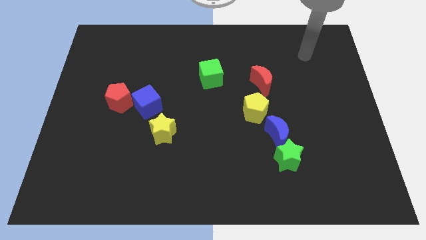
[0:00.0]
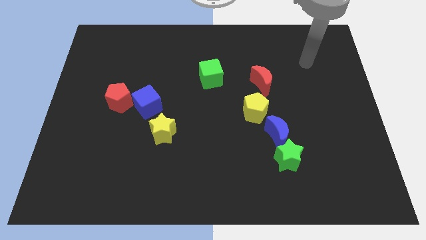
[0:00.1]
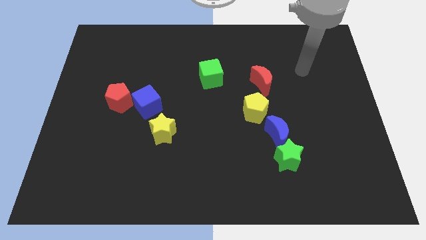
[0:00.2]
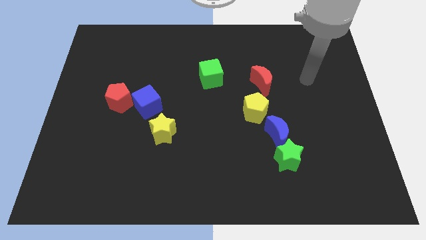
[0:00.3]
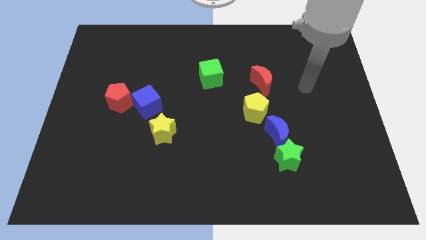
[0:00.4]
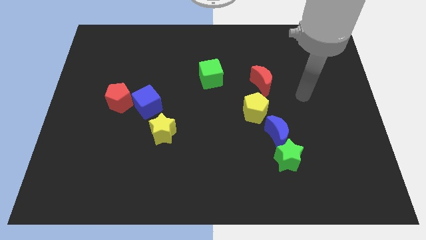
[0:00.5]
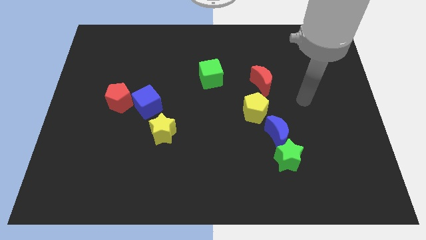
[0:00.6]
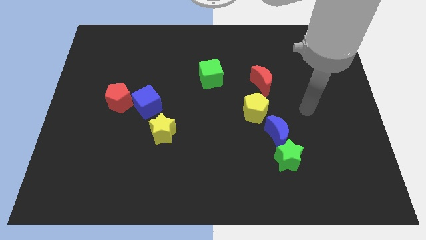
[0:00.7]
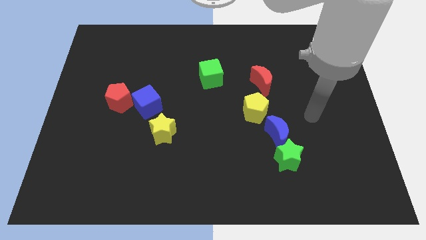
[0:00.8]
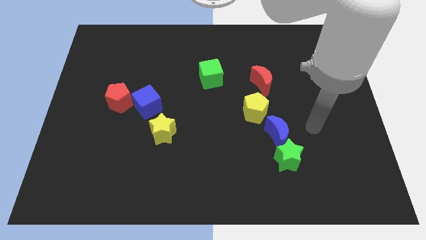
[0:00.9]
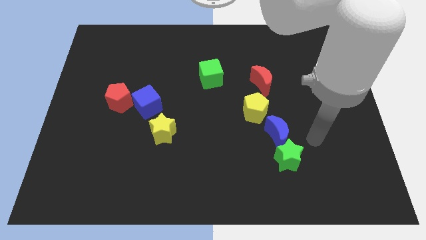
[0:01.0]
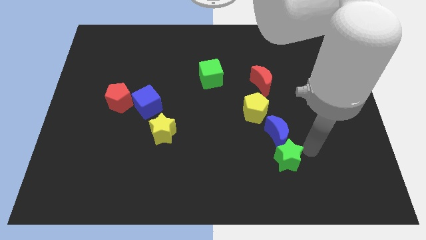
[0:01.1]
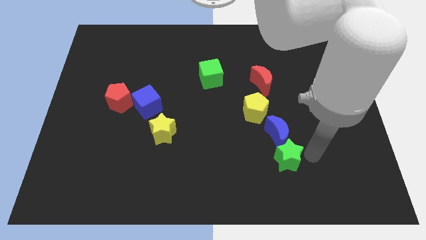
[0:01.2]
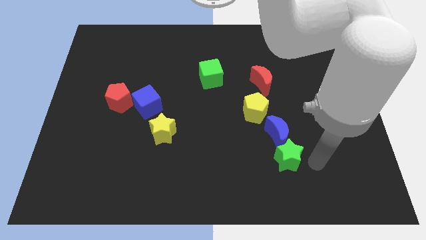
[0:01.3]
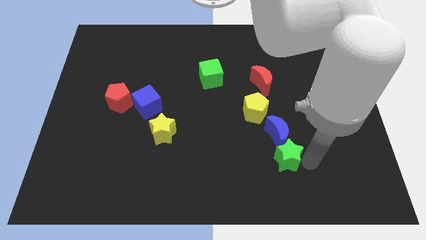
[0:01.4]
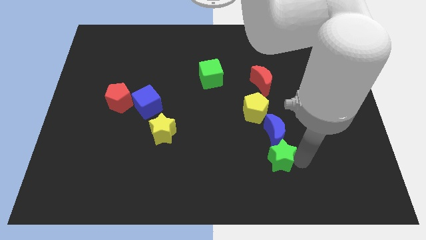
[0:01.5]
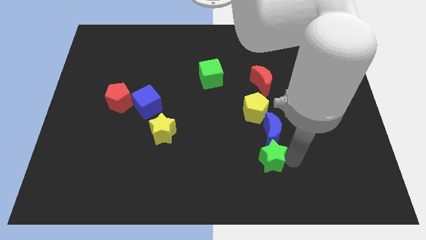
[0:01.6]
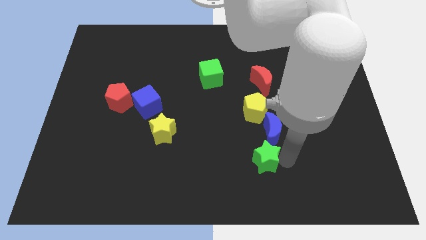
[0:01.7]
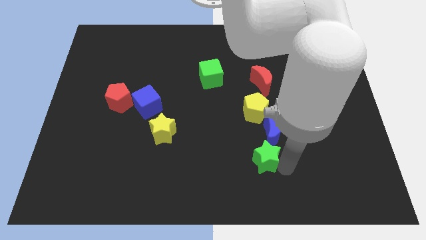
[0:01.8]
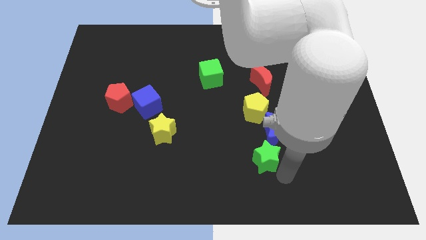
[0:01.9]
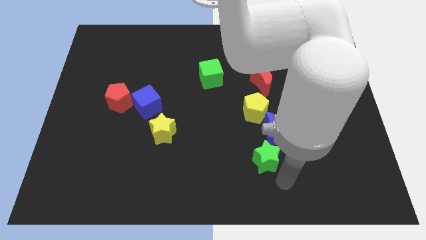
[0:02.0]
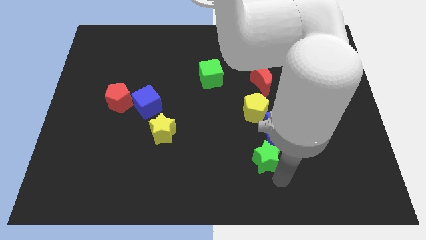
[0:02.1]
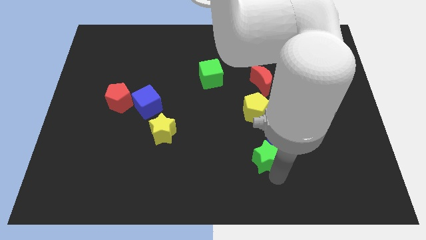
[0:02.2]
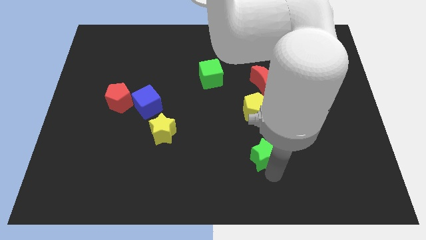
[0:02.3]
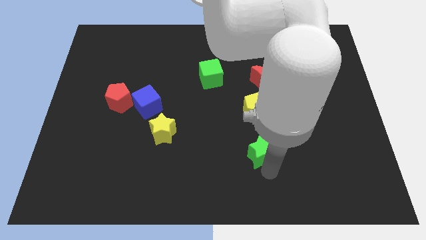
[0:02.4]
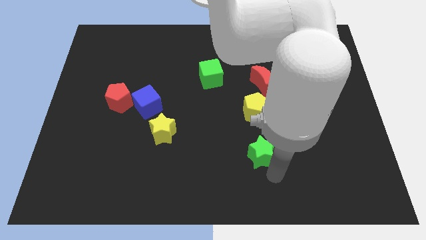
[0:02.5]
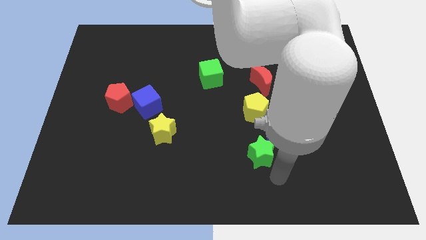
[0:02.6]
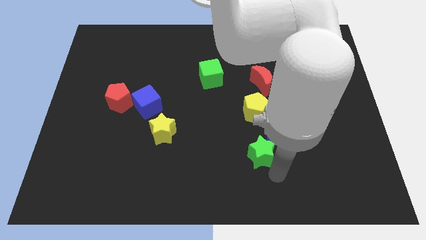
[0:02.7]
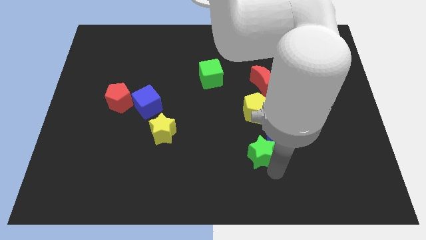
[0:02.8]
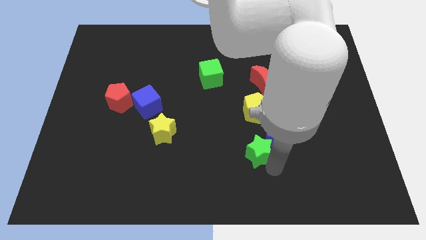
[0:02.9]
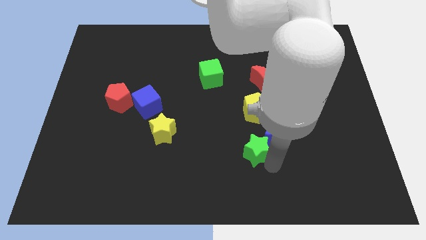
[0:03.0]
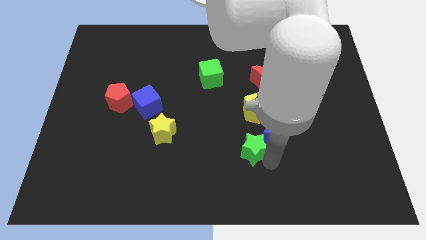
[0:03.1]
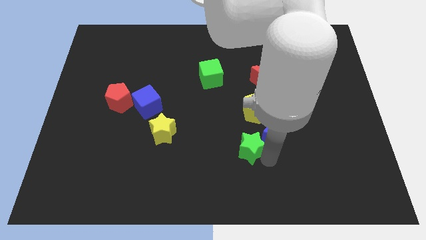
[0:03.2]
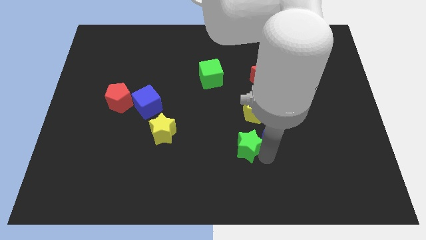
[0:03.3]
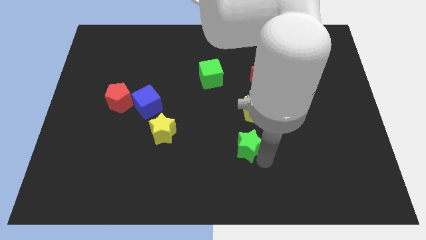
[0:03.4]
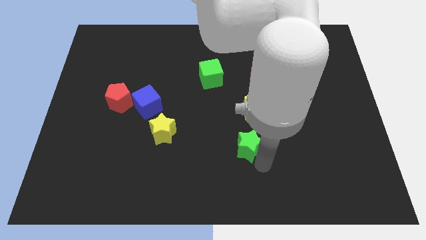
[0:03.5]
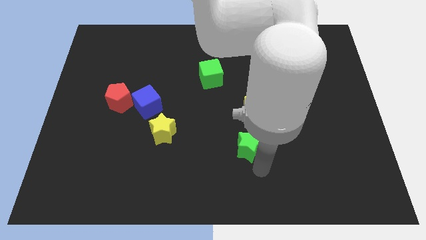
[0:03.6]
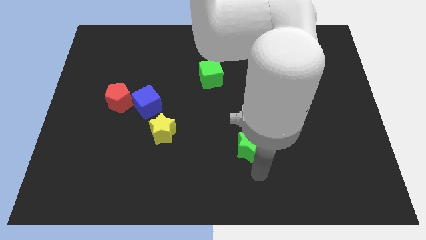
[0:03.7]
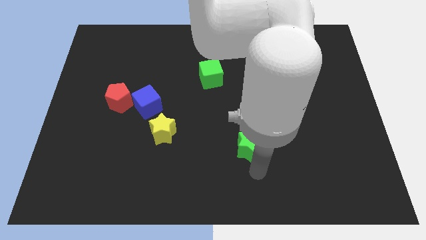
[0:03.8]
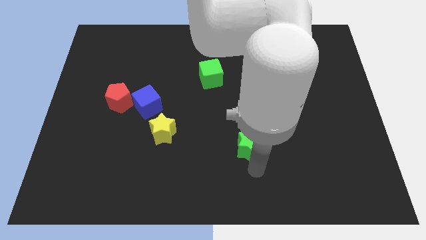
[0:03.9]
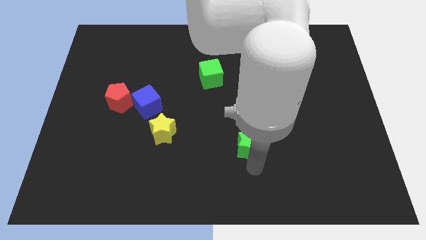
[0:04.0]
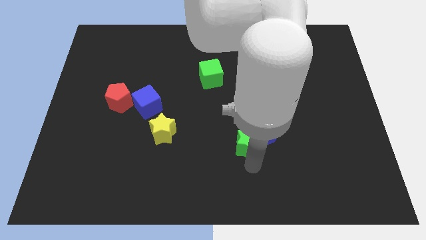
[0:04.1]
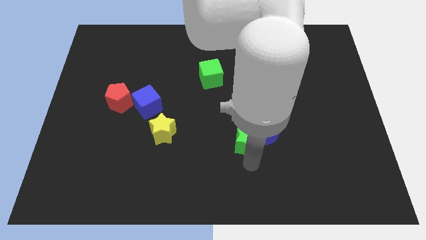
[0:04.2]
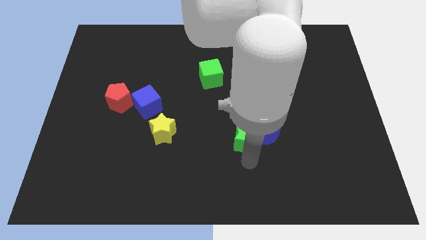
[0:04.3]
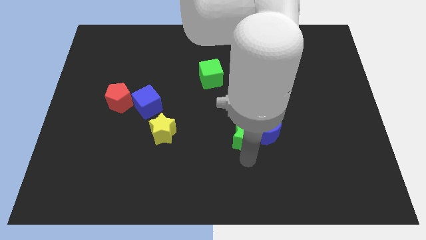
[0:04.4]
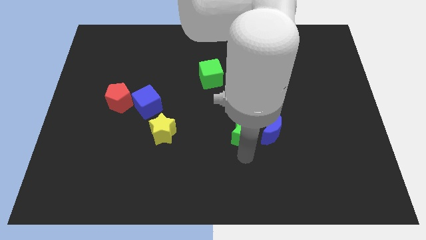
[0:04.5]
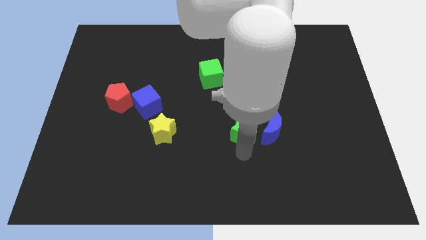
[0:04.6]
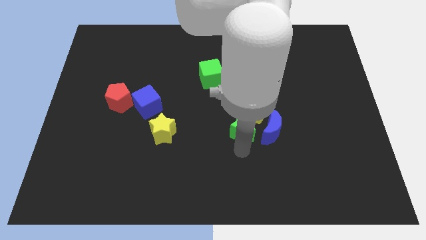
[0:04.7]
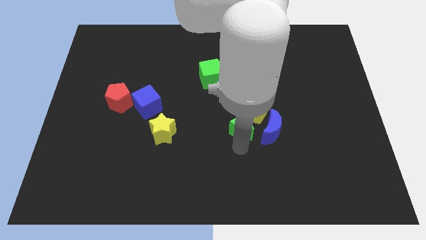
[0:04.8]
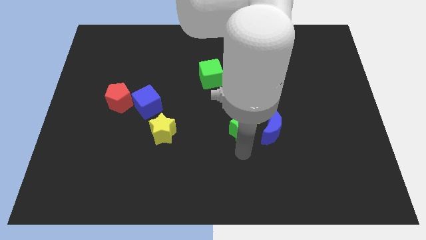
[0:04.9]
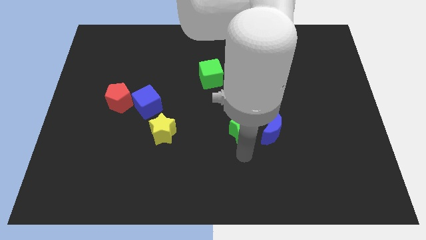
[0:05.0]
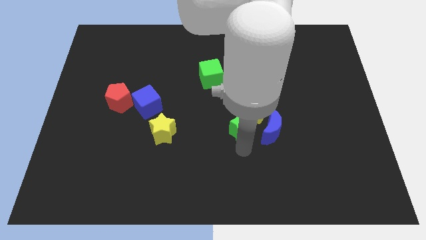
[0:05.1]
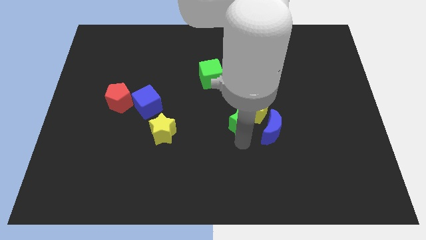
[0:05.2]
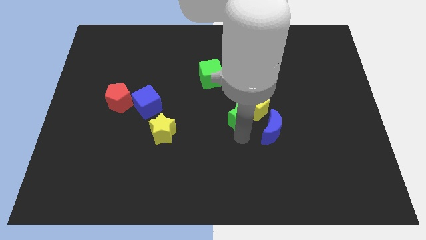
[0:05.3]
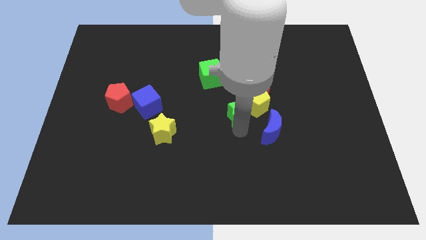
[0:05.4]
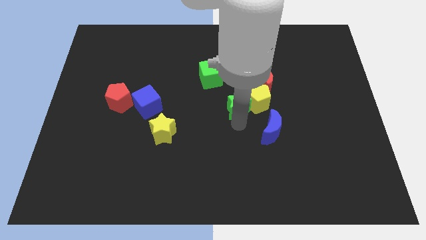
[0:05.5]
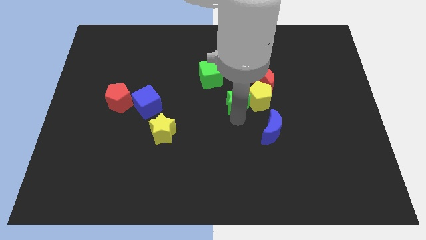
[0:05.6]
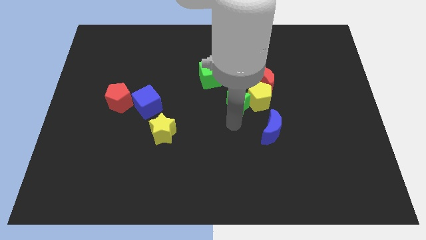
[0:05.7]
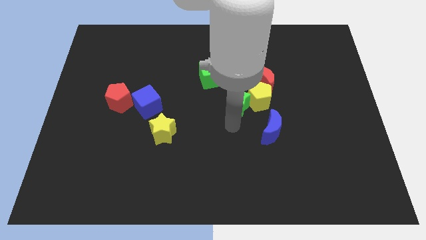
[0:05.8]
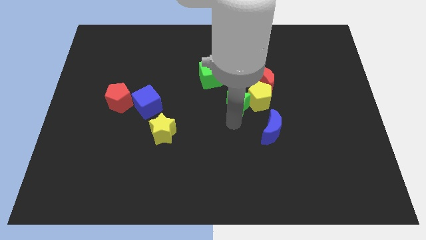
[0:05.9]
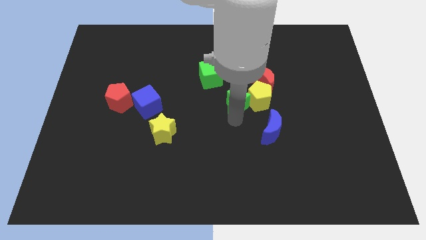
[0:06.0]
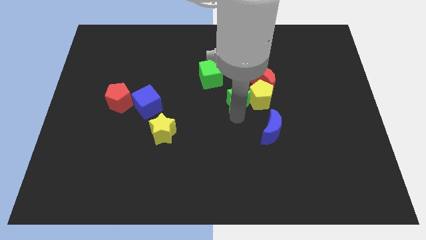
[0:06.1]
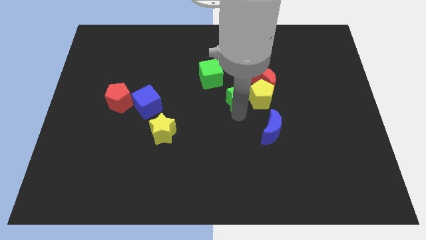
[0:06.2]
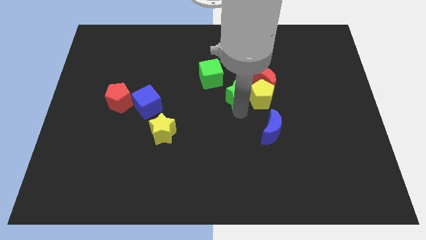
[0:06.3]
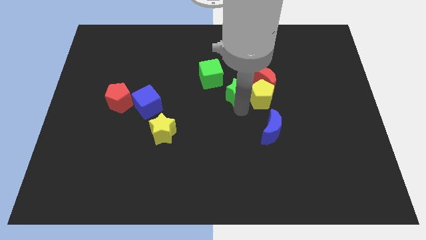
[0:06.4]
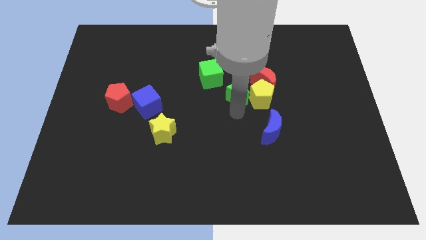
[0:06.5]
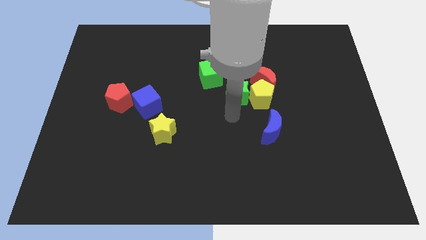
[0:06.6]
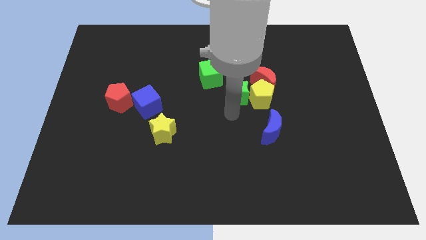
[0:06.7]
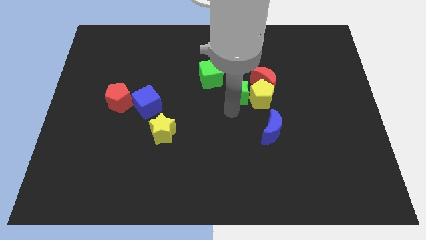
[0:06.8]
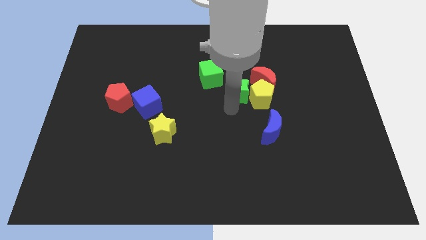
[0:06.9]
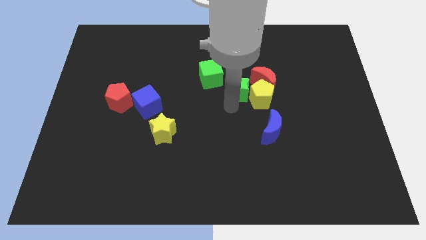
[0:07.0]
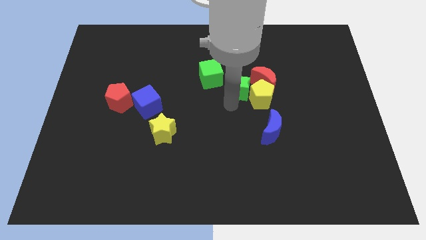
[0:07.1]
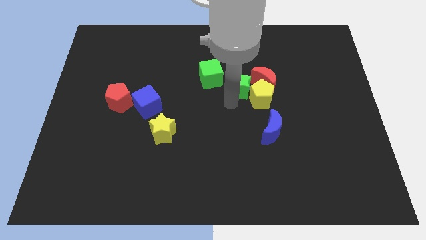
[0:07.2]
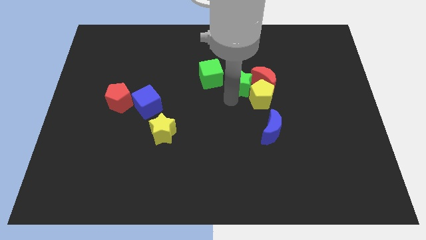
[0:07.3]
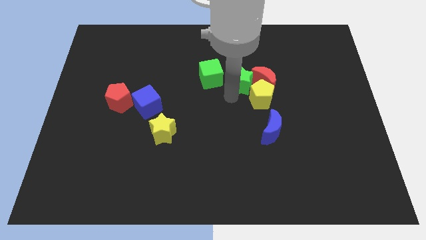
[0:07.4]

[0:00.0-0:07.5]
put the green star to the top of the yellow pentagon

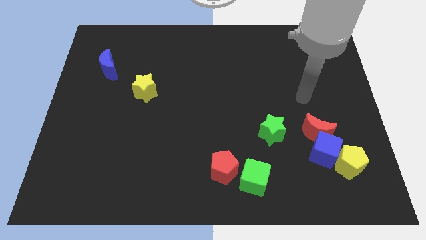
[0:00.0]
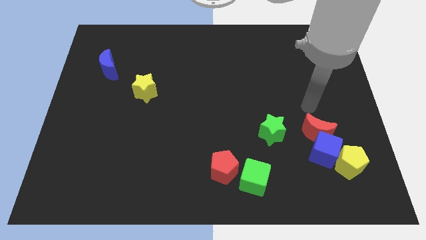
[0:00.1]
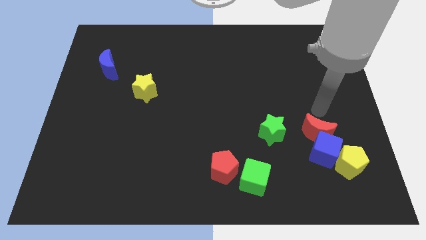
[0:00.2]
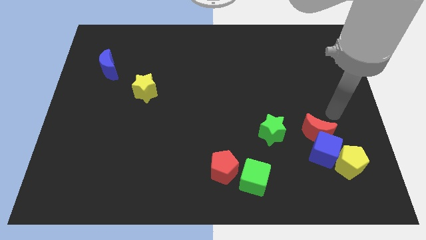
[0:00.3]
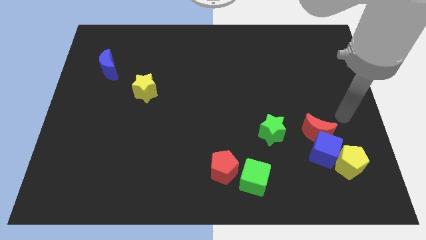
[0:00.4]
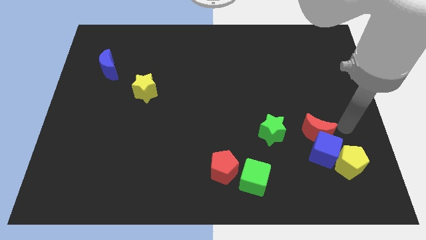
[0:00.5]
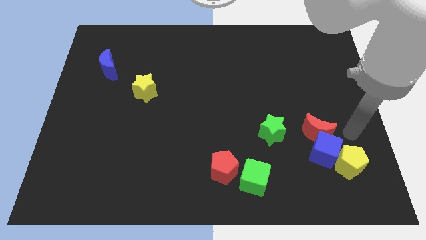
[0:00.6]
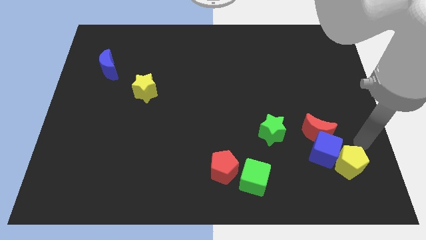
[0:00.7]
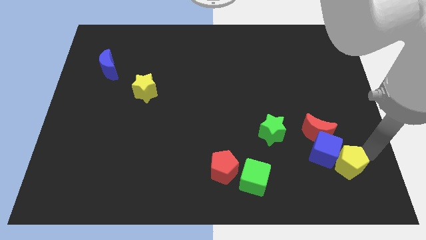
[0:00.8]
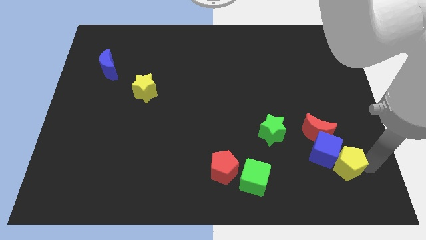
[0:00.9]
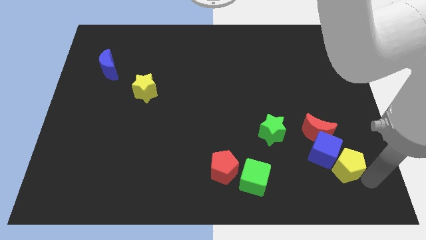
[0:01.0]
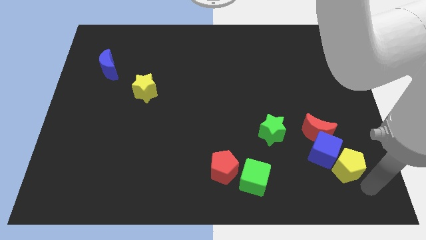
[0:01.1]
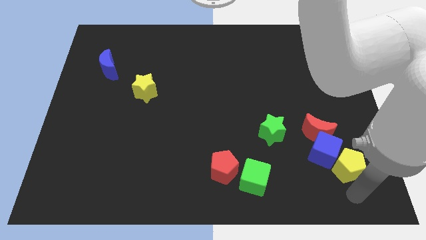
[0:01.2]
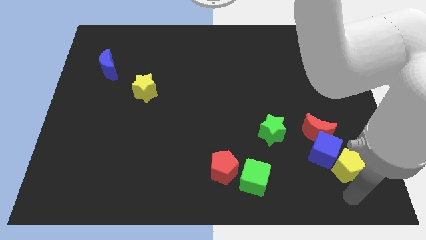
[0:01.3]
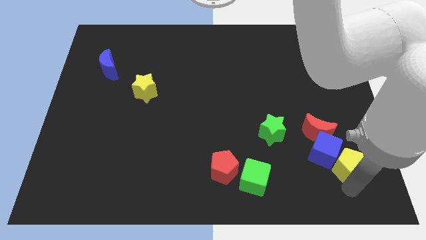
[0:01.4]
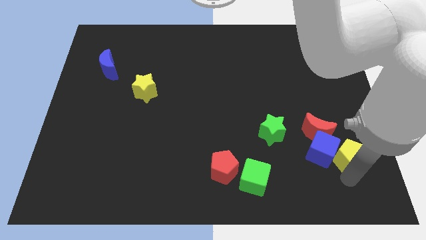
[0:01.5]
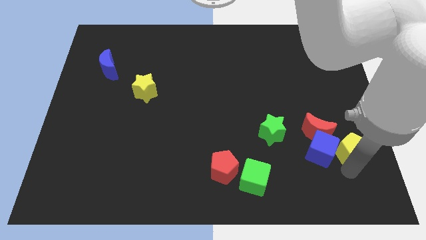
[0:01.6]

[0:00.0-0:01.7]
push the yellow pentagon to the top right side of the blue cube
